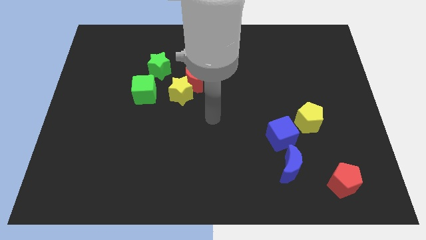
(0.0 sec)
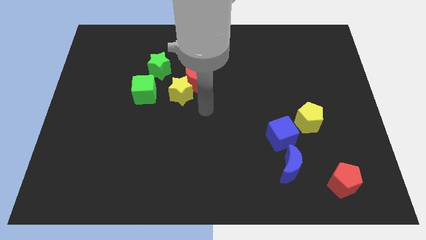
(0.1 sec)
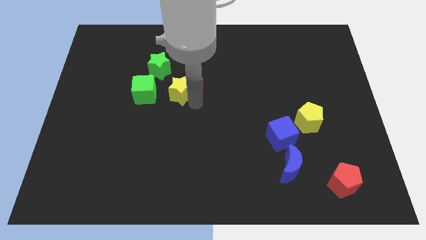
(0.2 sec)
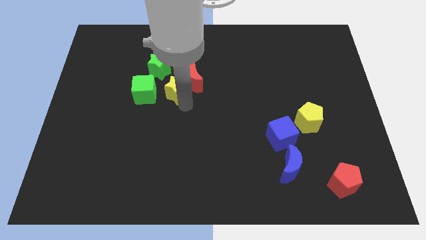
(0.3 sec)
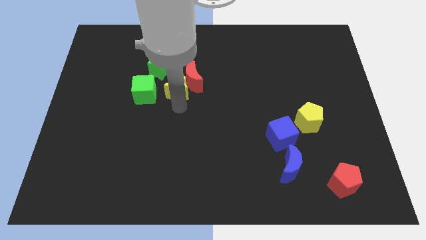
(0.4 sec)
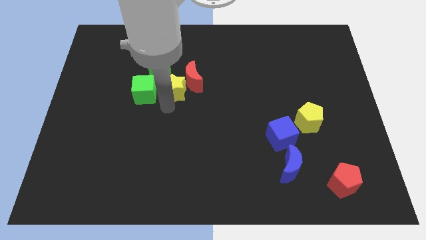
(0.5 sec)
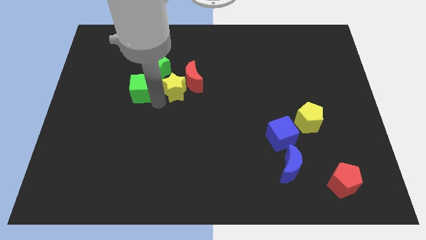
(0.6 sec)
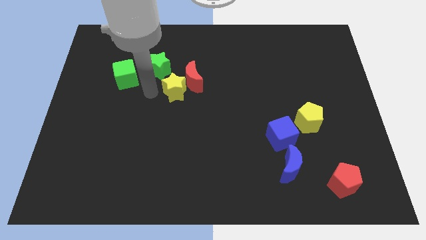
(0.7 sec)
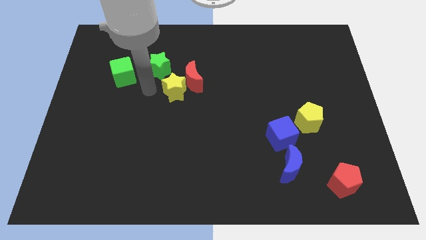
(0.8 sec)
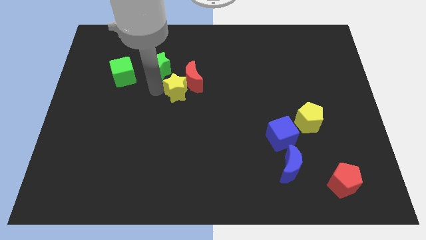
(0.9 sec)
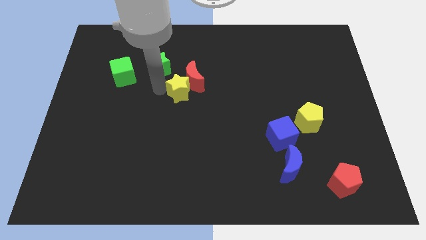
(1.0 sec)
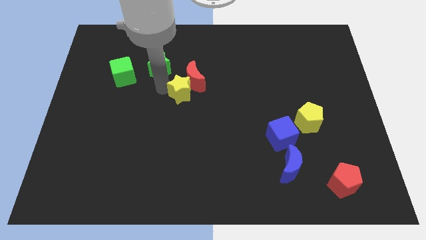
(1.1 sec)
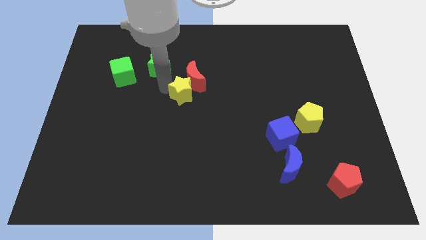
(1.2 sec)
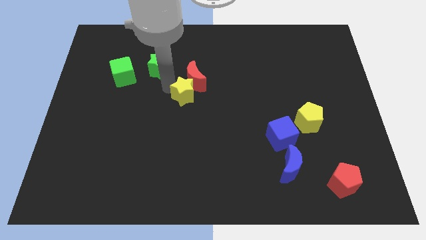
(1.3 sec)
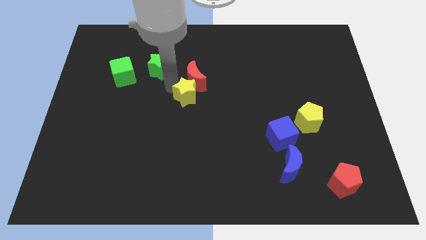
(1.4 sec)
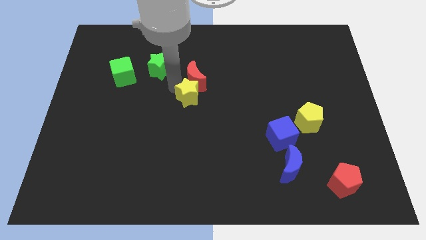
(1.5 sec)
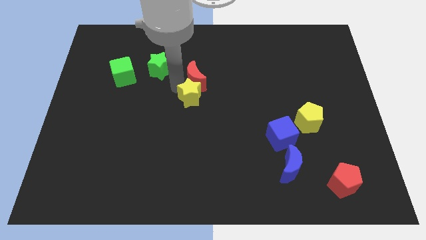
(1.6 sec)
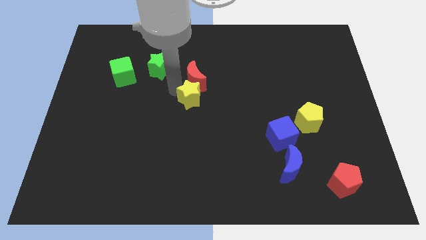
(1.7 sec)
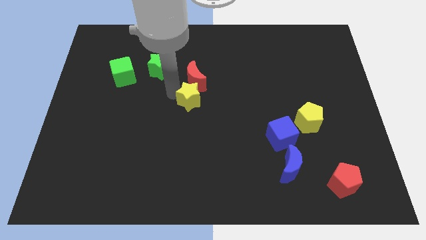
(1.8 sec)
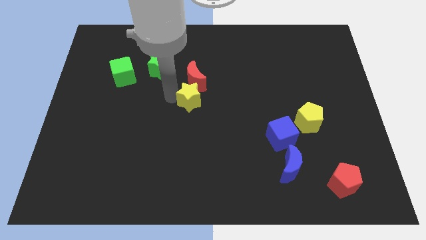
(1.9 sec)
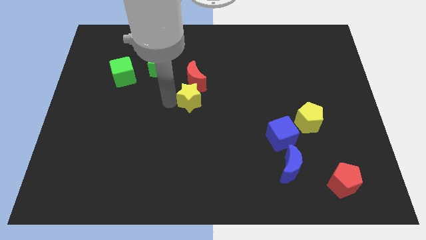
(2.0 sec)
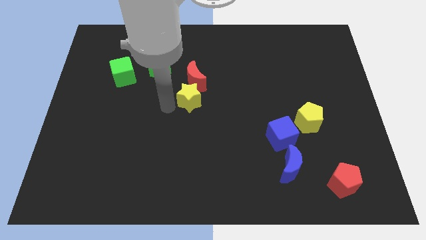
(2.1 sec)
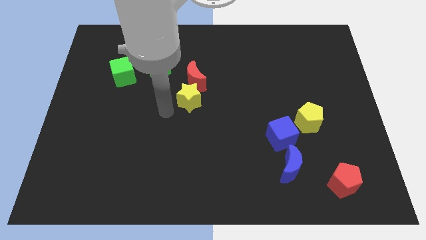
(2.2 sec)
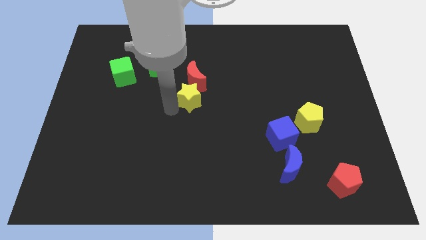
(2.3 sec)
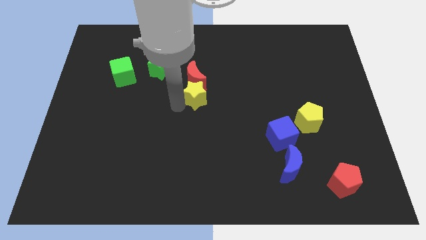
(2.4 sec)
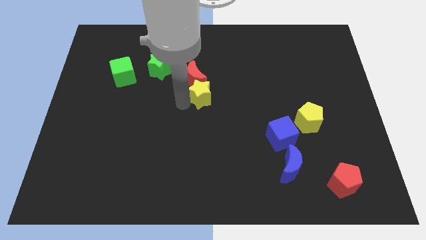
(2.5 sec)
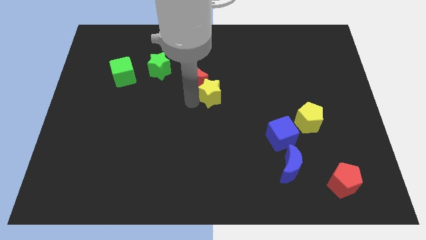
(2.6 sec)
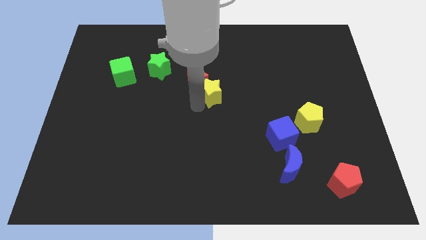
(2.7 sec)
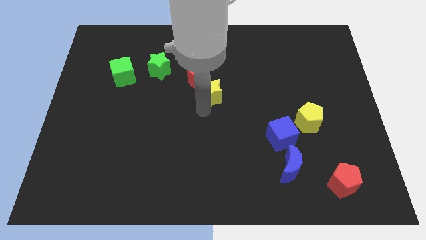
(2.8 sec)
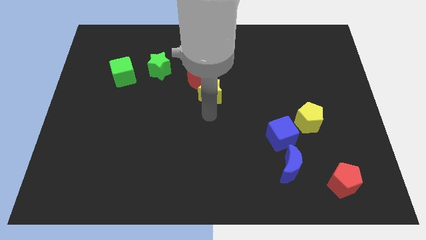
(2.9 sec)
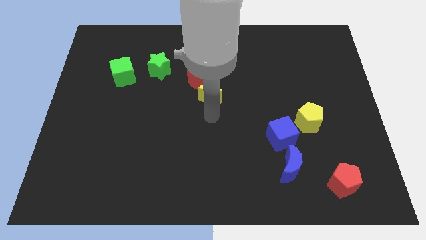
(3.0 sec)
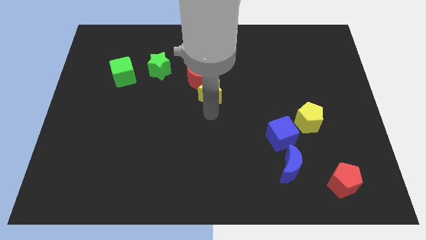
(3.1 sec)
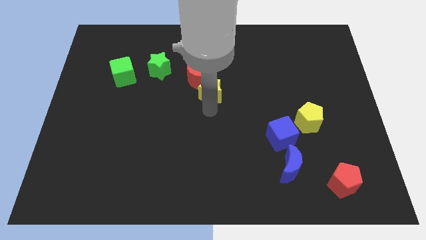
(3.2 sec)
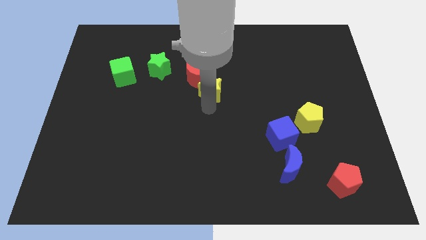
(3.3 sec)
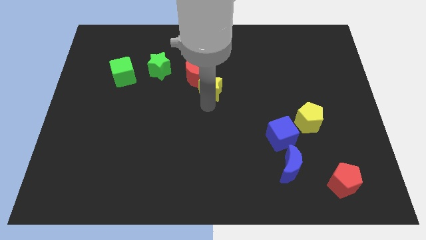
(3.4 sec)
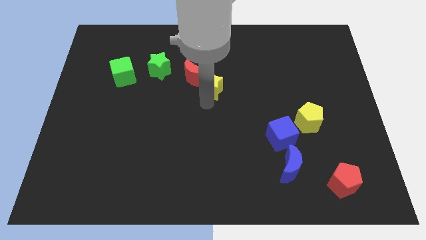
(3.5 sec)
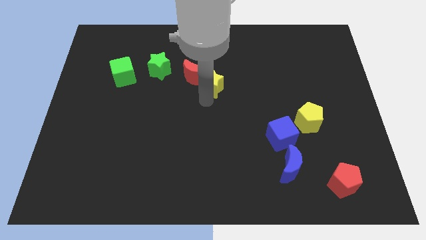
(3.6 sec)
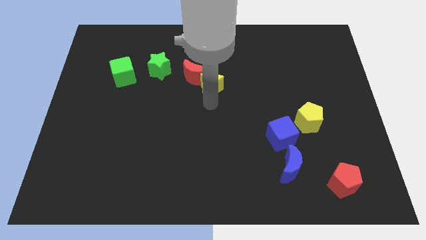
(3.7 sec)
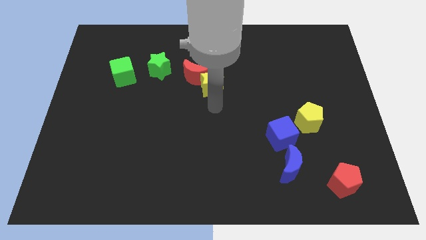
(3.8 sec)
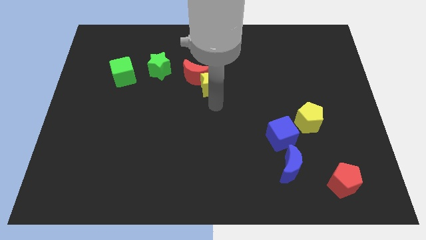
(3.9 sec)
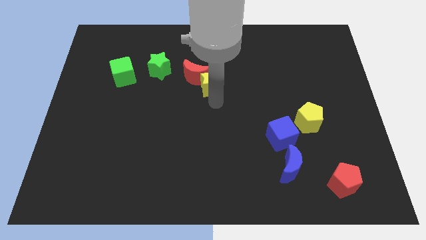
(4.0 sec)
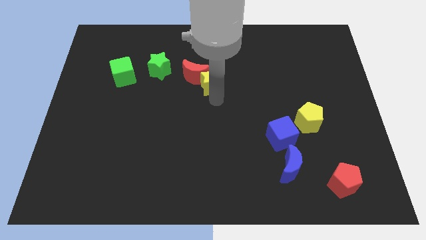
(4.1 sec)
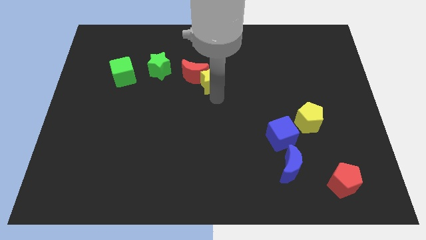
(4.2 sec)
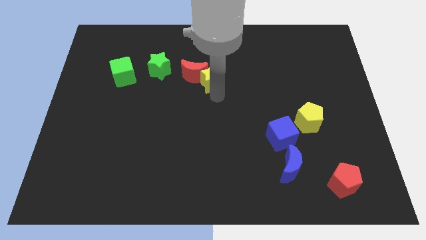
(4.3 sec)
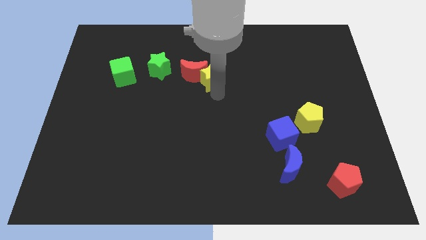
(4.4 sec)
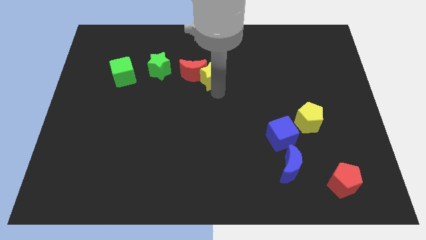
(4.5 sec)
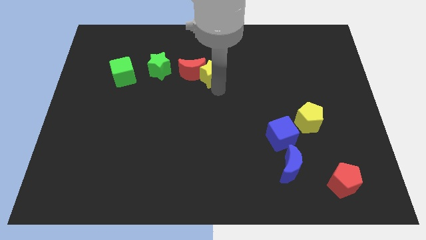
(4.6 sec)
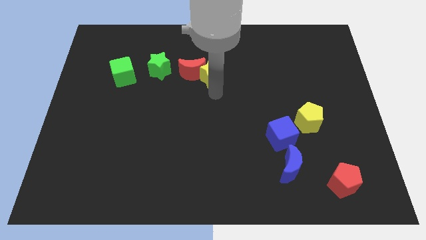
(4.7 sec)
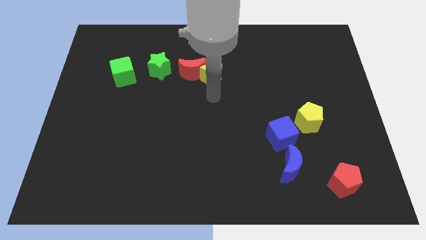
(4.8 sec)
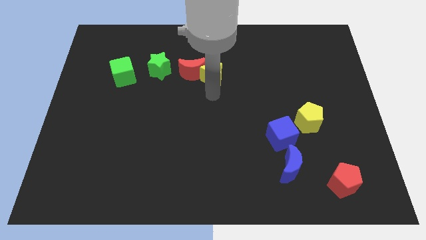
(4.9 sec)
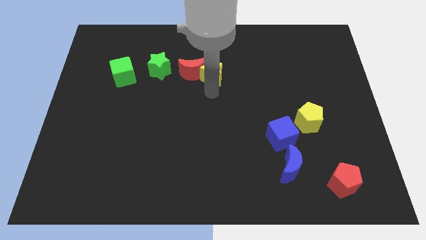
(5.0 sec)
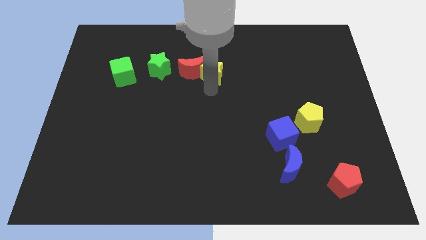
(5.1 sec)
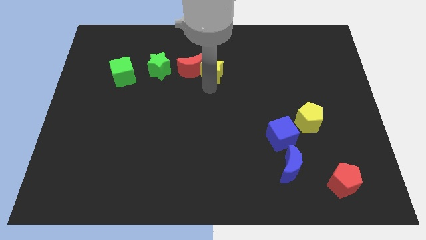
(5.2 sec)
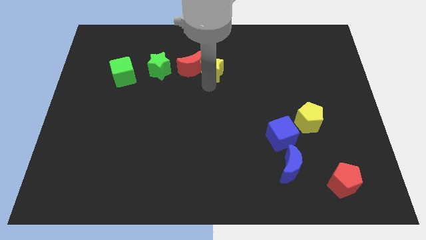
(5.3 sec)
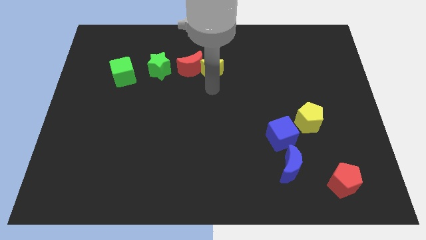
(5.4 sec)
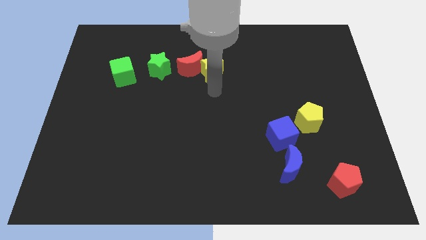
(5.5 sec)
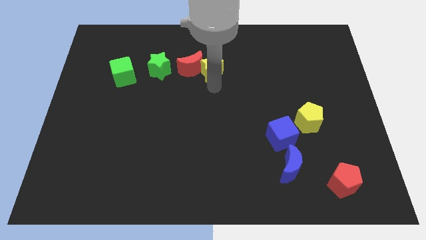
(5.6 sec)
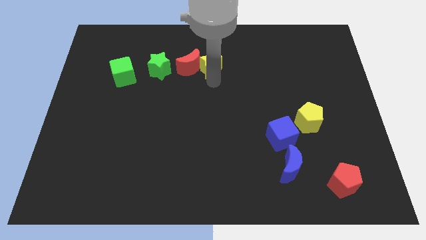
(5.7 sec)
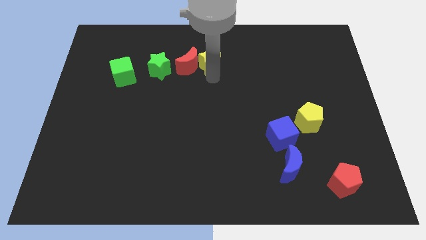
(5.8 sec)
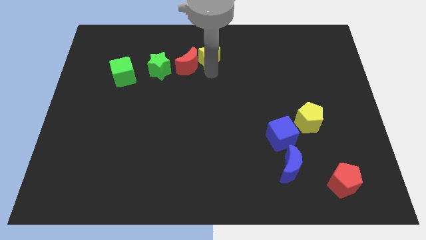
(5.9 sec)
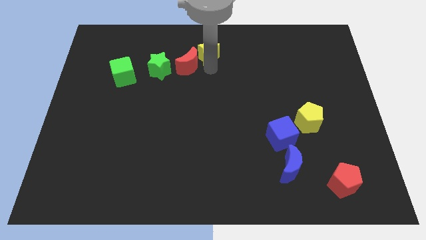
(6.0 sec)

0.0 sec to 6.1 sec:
move the yellow star to the towards your base
